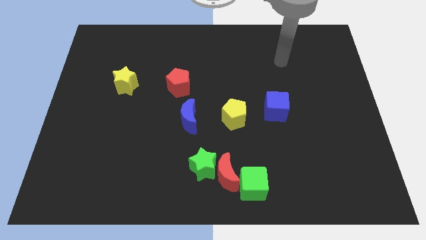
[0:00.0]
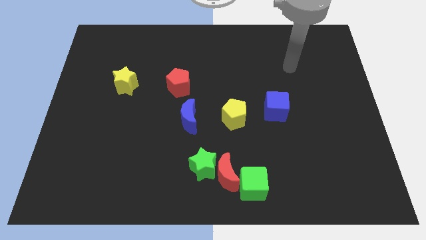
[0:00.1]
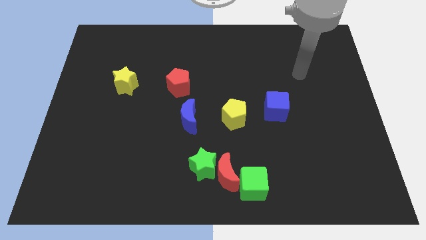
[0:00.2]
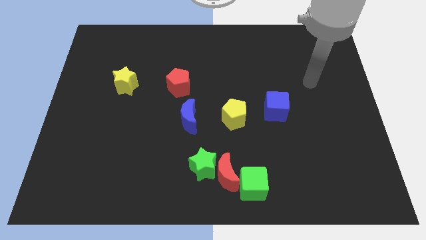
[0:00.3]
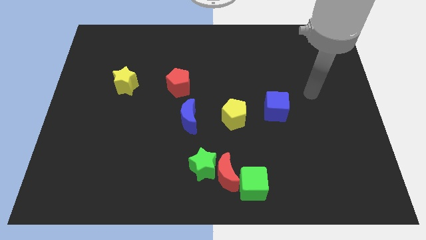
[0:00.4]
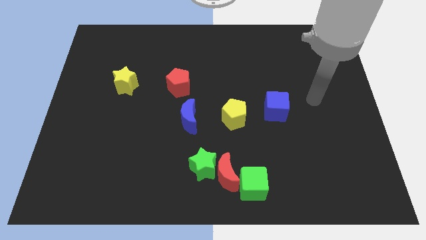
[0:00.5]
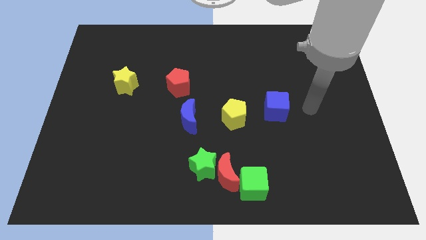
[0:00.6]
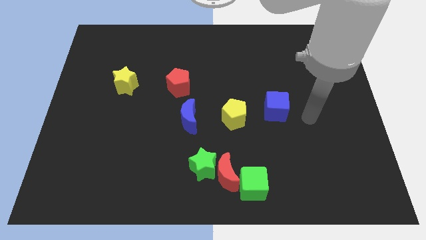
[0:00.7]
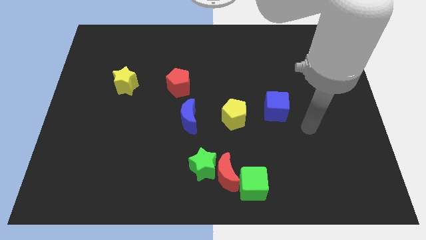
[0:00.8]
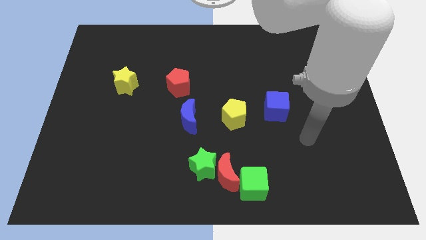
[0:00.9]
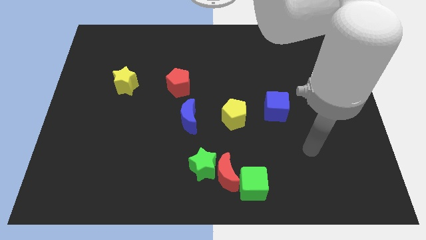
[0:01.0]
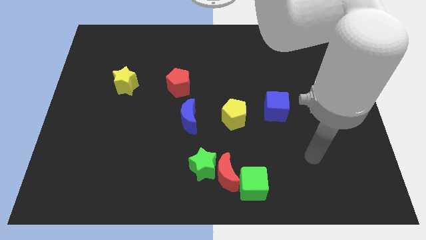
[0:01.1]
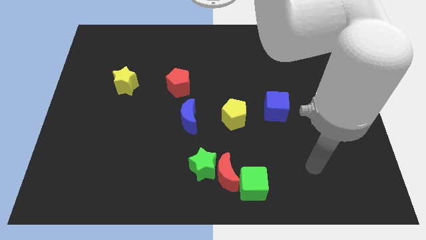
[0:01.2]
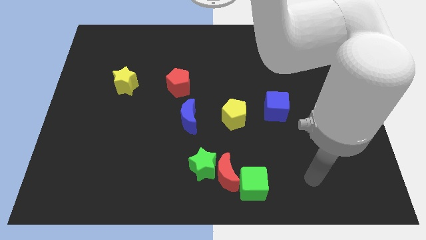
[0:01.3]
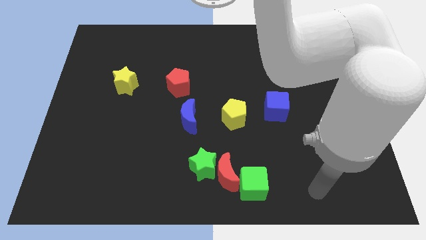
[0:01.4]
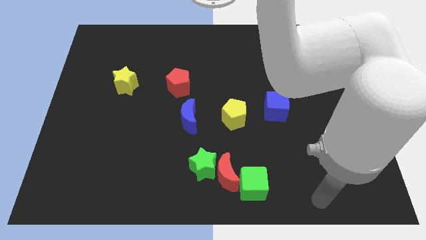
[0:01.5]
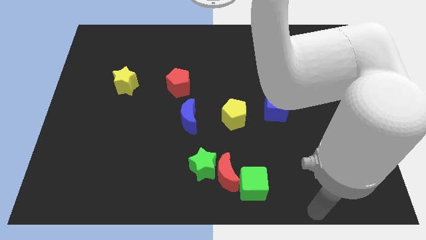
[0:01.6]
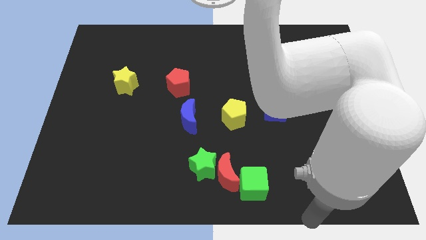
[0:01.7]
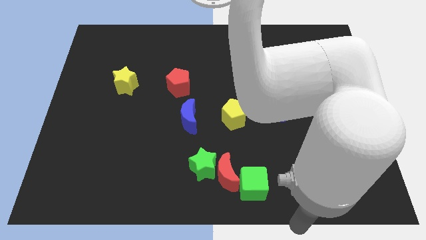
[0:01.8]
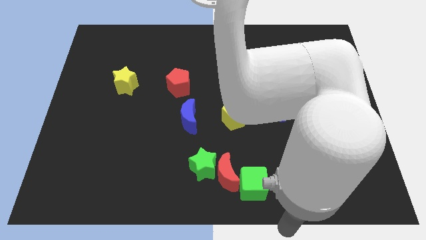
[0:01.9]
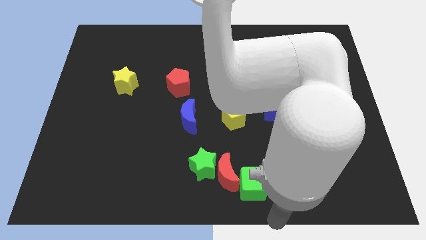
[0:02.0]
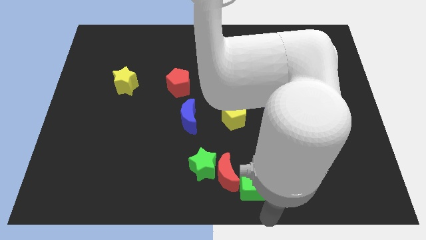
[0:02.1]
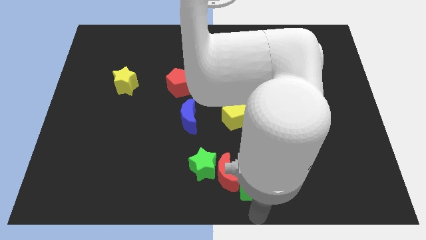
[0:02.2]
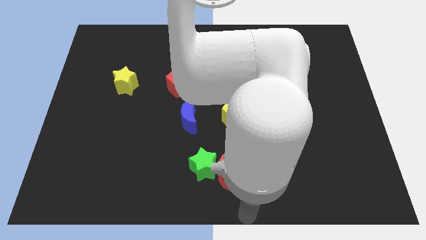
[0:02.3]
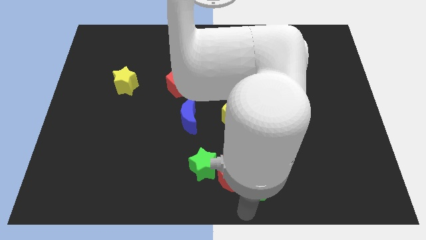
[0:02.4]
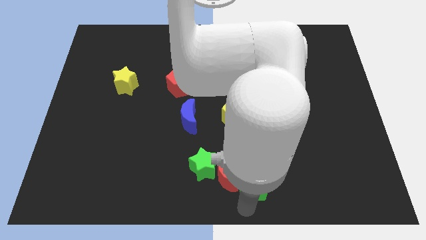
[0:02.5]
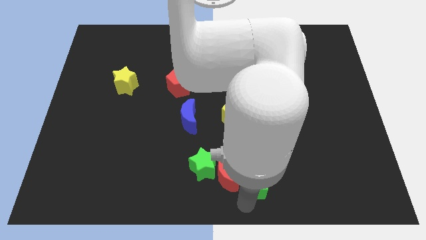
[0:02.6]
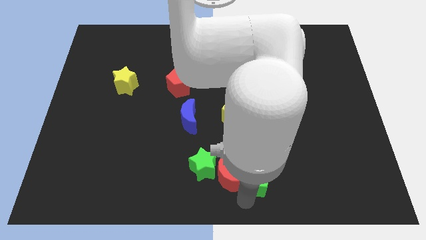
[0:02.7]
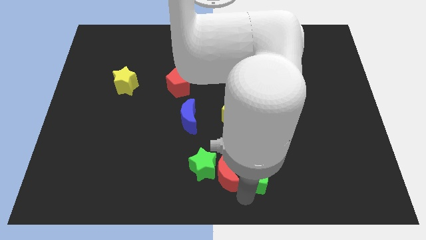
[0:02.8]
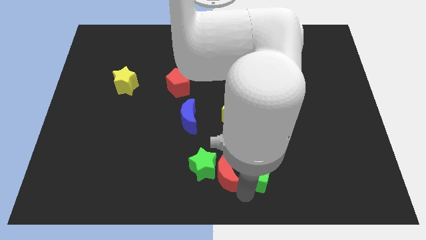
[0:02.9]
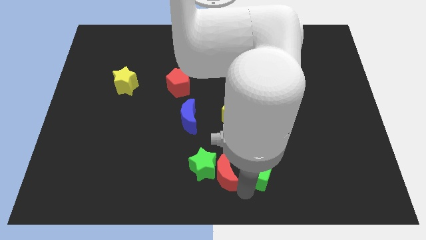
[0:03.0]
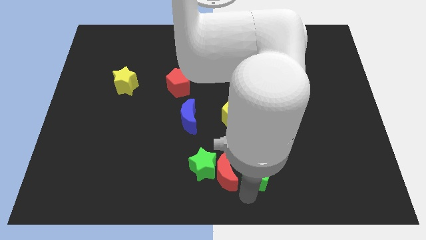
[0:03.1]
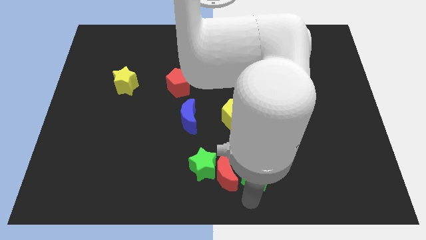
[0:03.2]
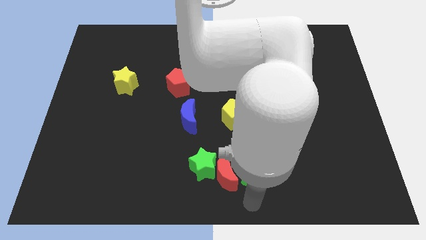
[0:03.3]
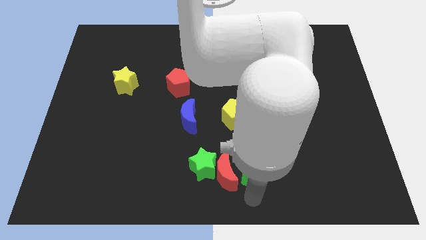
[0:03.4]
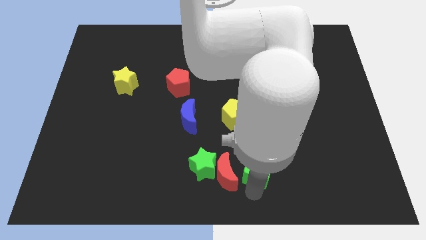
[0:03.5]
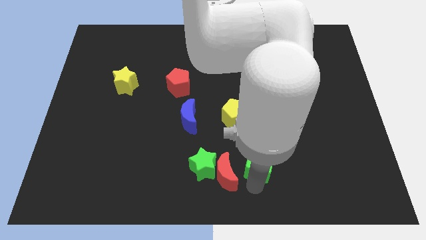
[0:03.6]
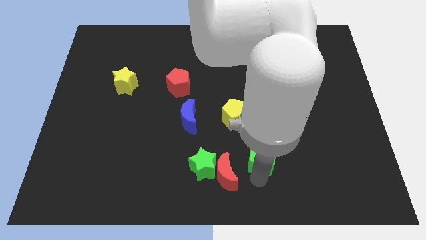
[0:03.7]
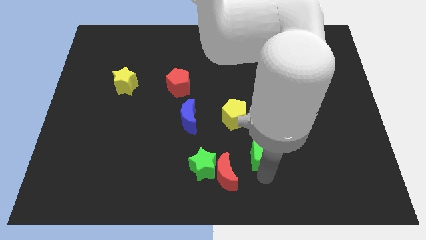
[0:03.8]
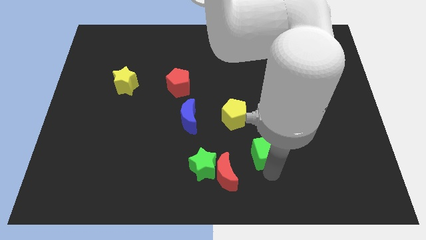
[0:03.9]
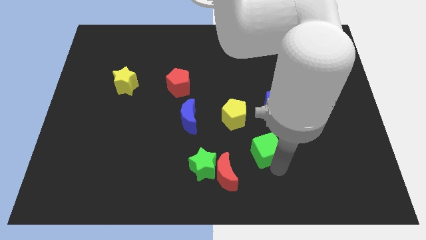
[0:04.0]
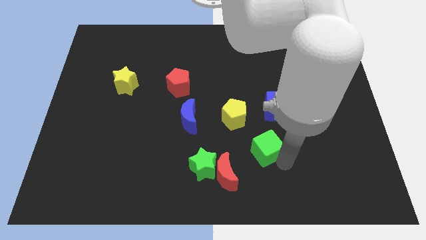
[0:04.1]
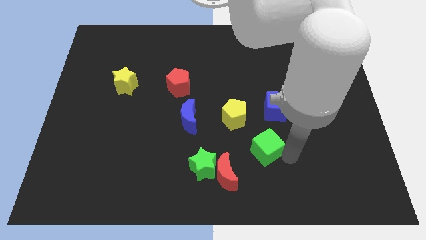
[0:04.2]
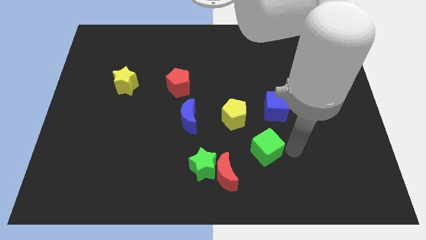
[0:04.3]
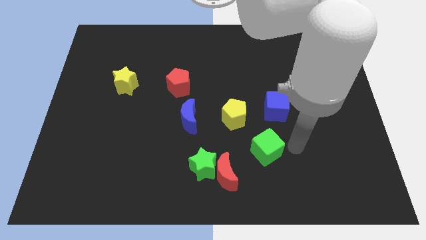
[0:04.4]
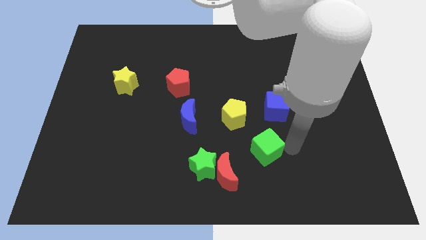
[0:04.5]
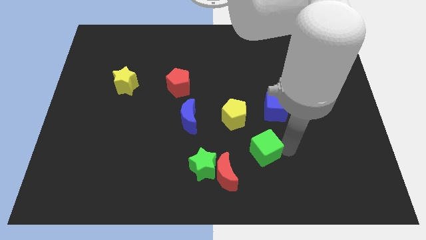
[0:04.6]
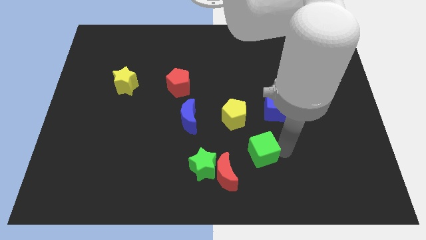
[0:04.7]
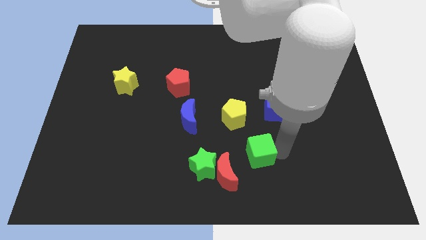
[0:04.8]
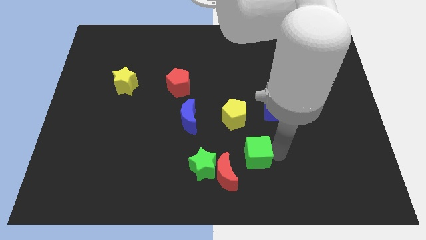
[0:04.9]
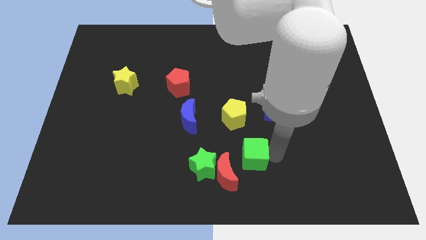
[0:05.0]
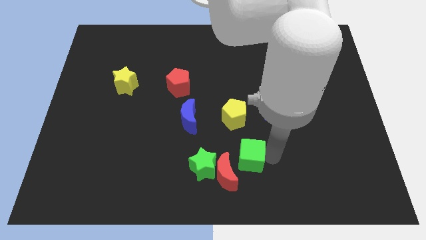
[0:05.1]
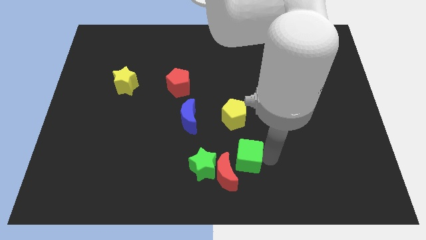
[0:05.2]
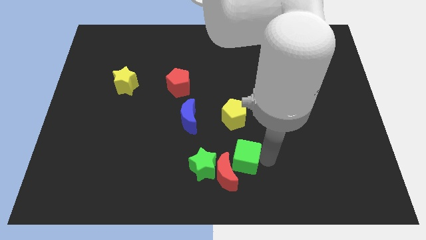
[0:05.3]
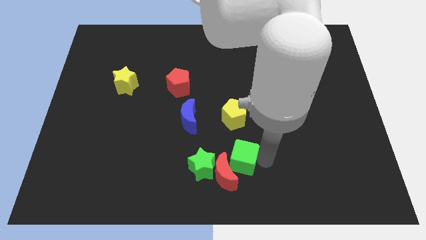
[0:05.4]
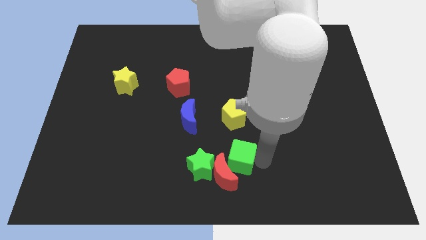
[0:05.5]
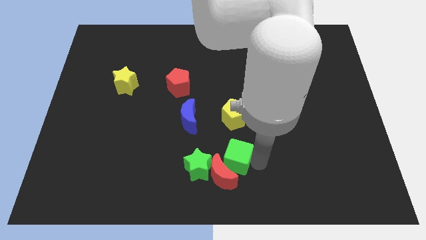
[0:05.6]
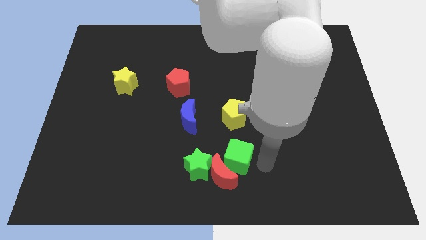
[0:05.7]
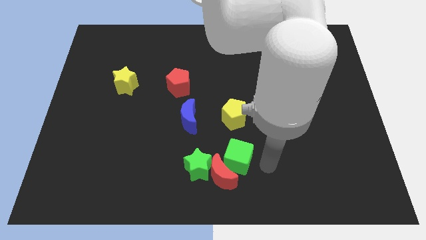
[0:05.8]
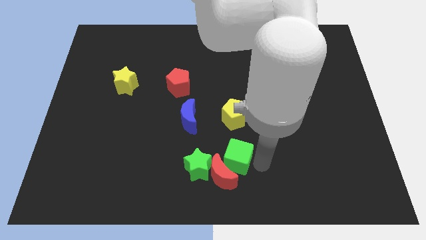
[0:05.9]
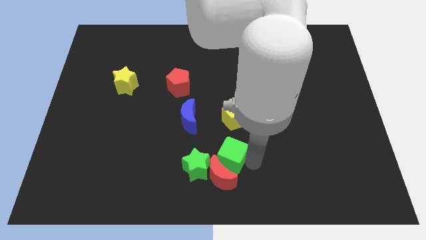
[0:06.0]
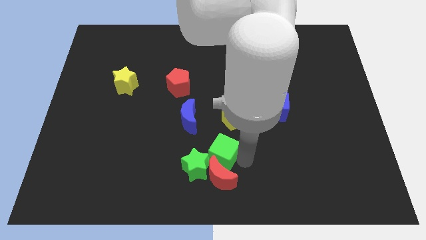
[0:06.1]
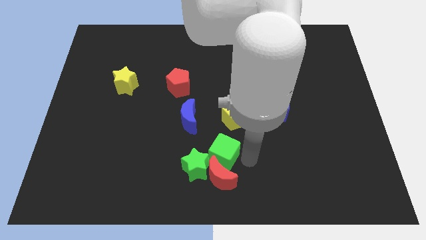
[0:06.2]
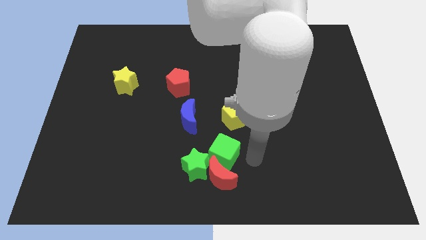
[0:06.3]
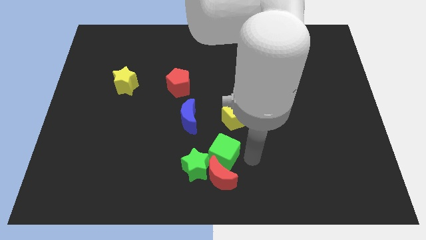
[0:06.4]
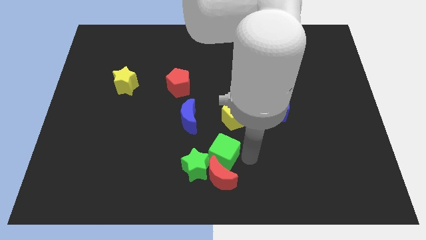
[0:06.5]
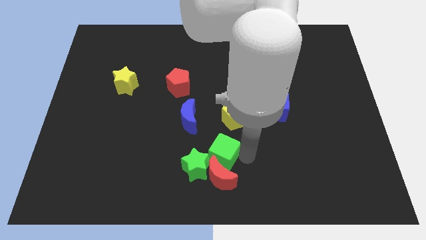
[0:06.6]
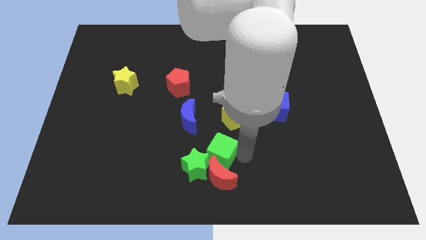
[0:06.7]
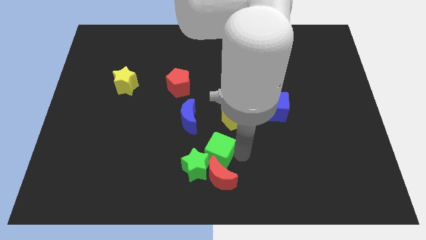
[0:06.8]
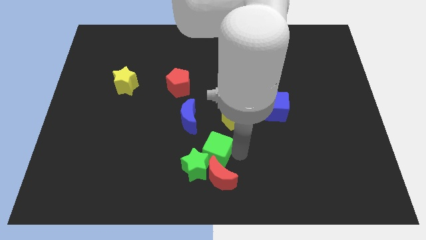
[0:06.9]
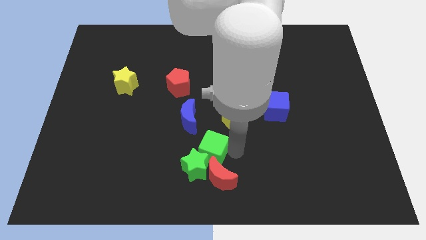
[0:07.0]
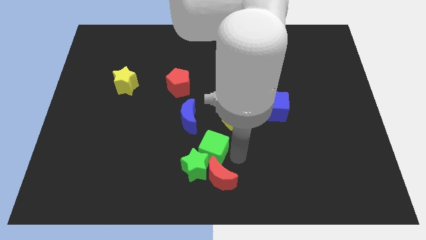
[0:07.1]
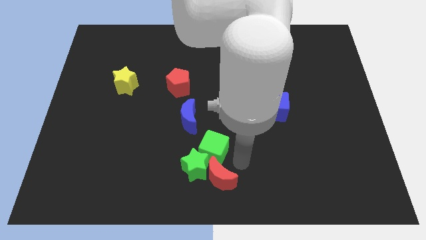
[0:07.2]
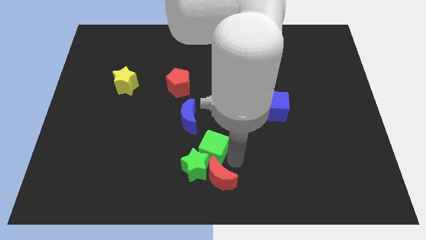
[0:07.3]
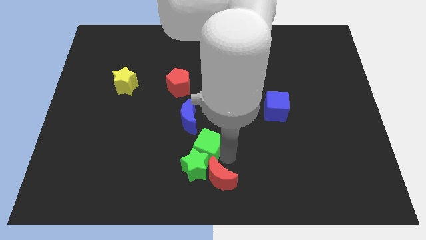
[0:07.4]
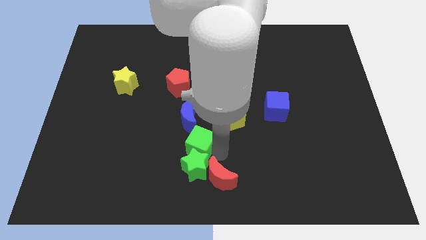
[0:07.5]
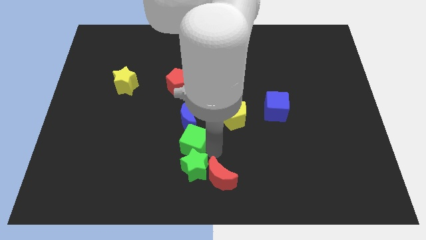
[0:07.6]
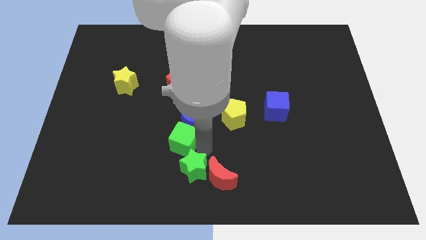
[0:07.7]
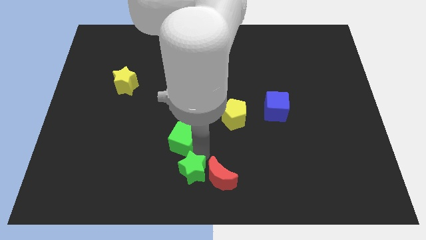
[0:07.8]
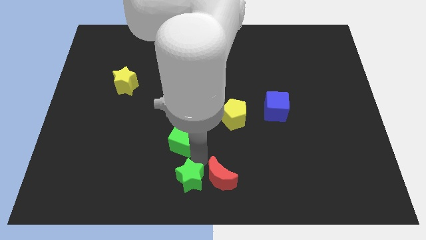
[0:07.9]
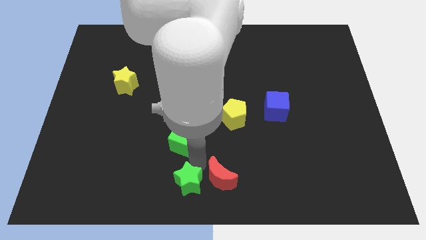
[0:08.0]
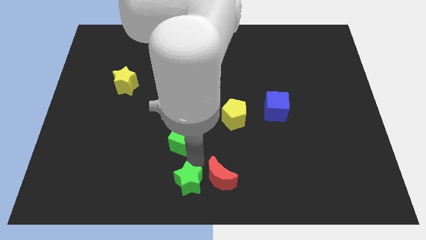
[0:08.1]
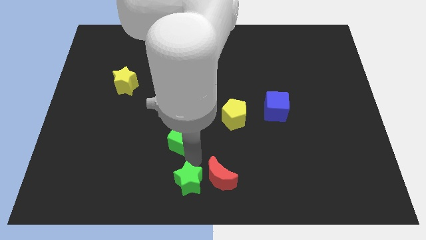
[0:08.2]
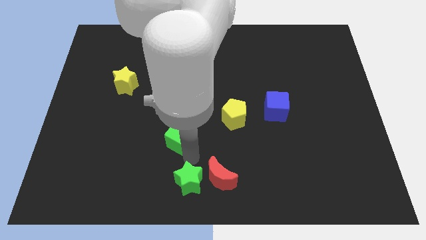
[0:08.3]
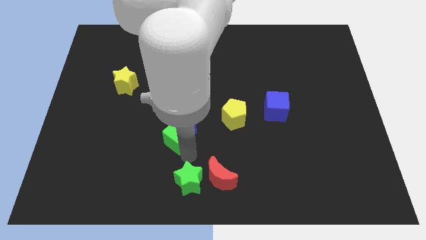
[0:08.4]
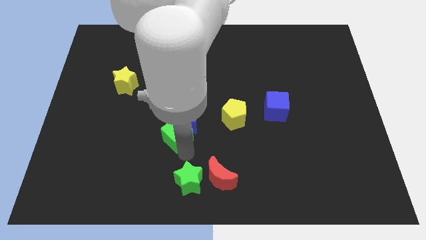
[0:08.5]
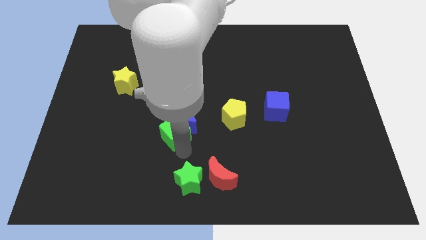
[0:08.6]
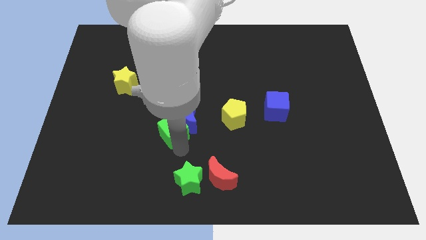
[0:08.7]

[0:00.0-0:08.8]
slide the green cube just left of the yellow pentagon
